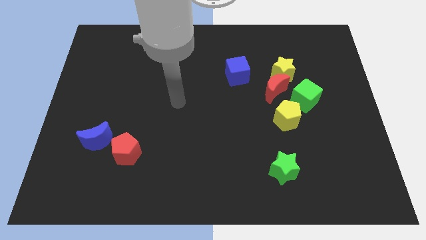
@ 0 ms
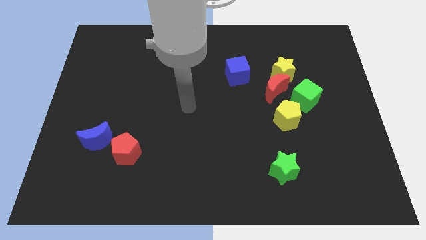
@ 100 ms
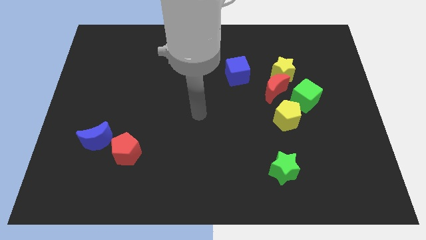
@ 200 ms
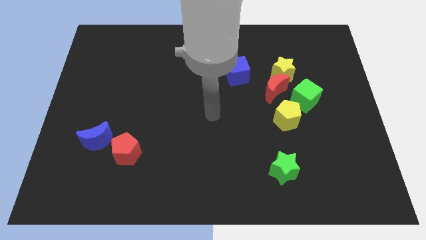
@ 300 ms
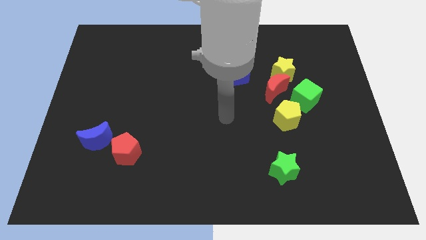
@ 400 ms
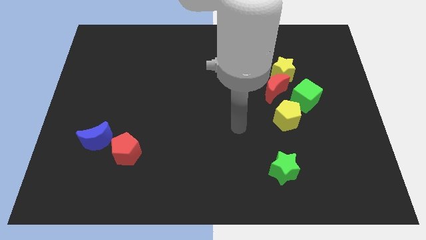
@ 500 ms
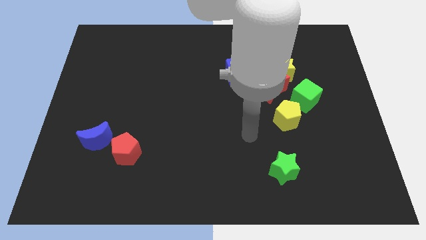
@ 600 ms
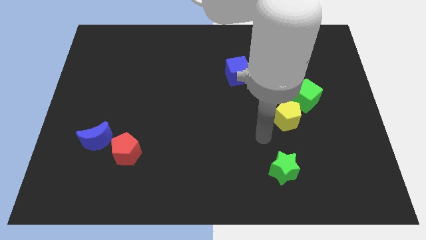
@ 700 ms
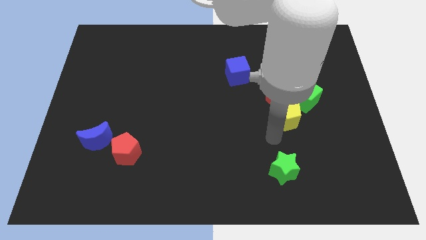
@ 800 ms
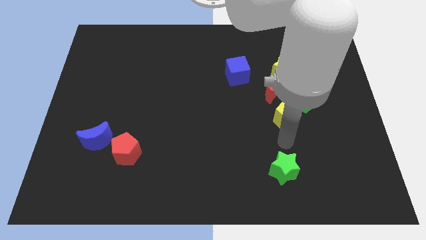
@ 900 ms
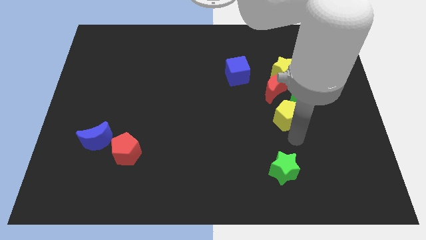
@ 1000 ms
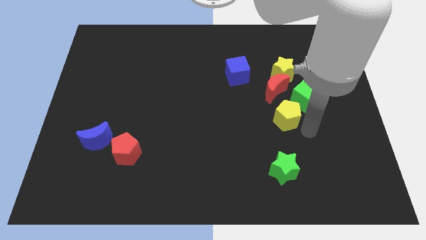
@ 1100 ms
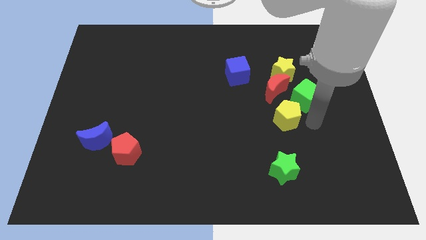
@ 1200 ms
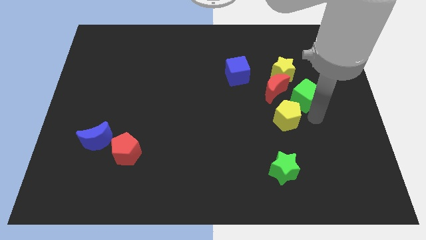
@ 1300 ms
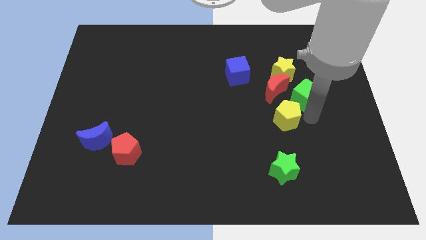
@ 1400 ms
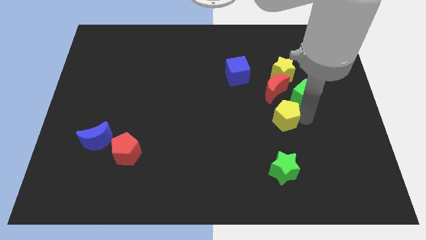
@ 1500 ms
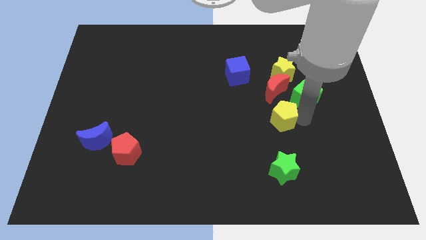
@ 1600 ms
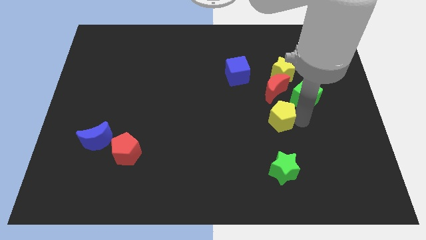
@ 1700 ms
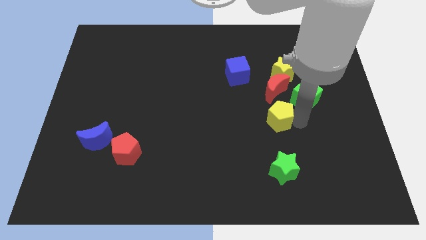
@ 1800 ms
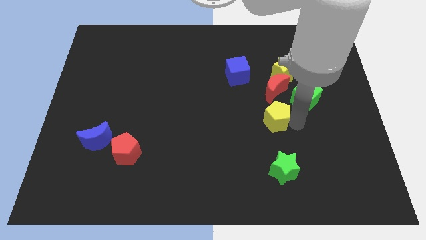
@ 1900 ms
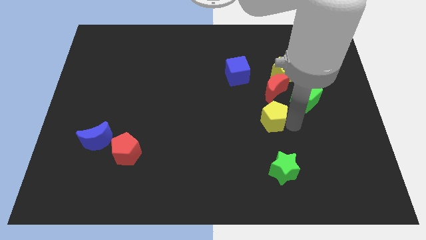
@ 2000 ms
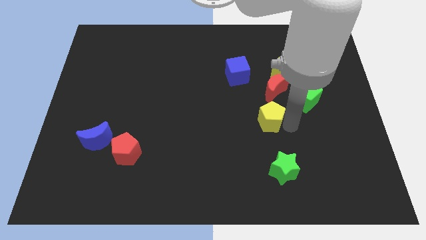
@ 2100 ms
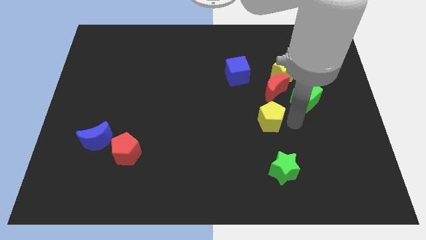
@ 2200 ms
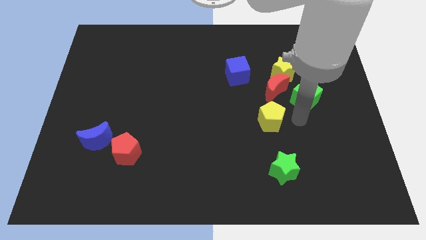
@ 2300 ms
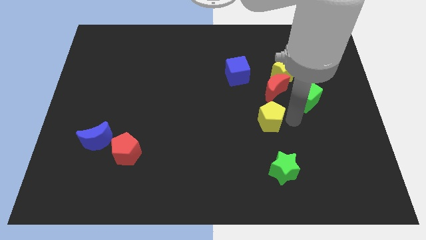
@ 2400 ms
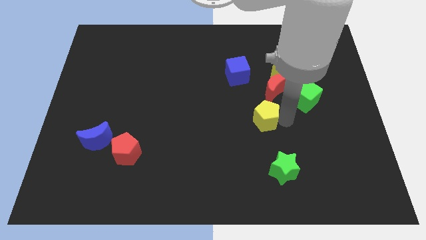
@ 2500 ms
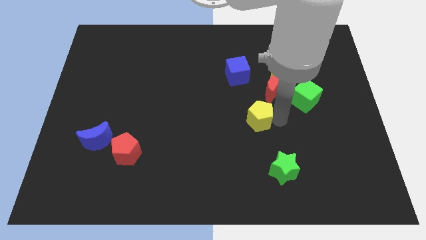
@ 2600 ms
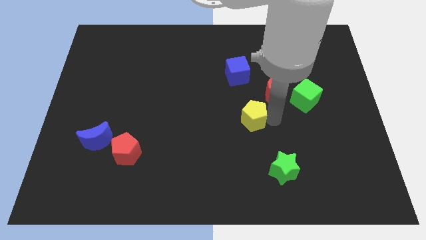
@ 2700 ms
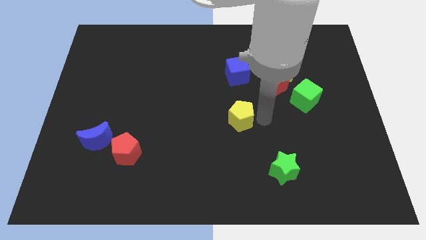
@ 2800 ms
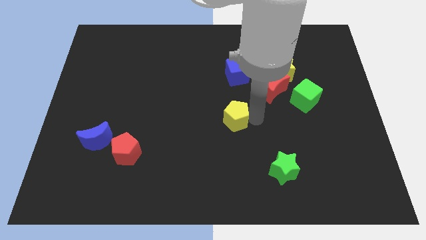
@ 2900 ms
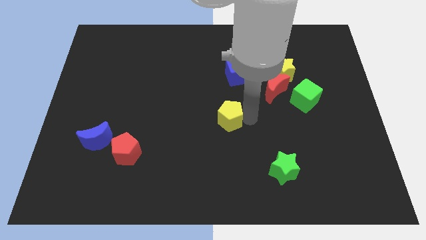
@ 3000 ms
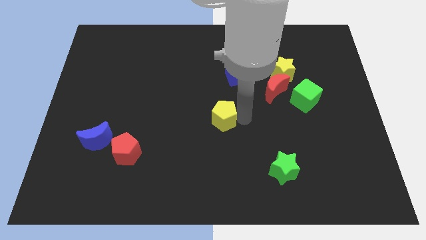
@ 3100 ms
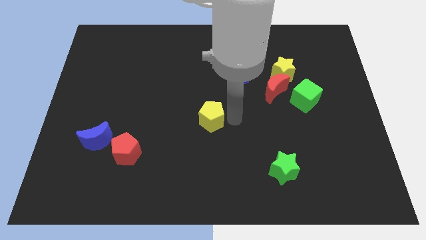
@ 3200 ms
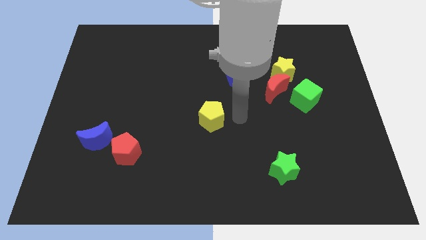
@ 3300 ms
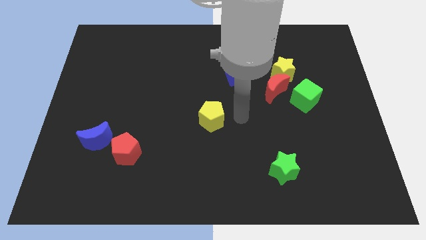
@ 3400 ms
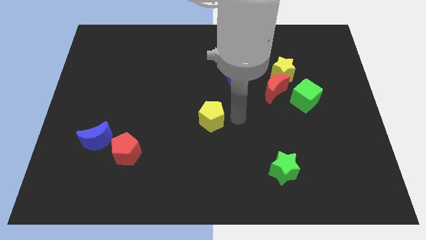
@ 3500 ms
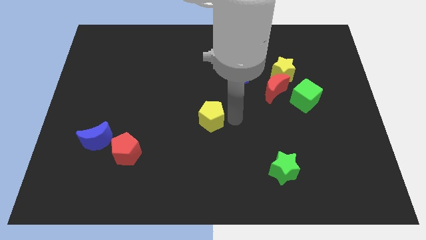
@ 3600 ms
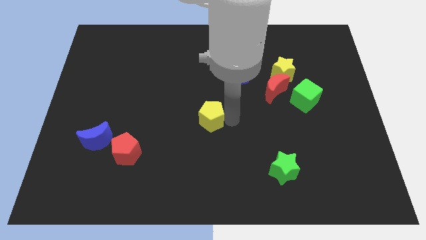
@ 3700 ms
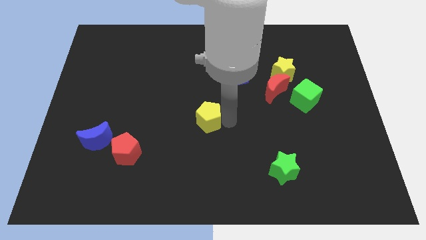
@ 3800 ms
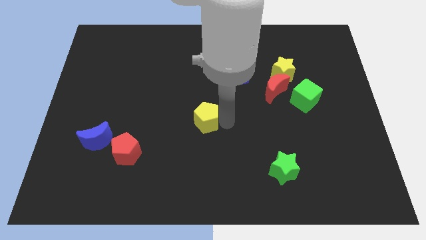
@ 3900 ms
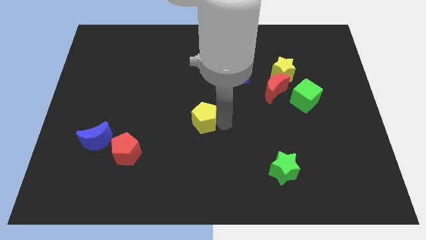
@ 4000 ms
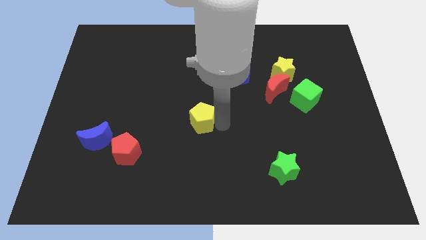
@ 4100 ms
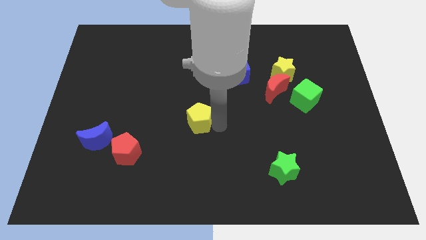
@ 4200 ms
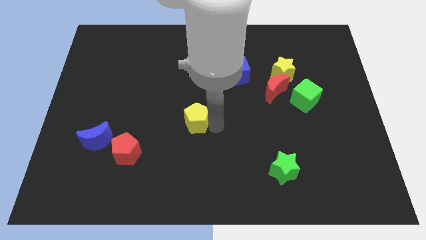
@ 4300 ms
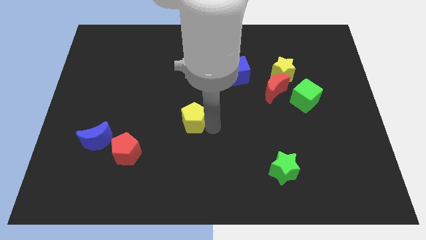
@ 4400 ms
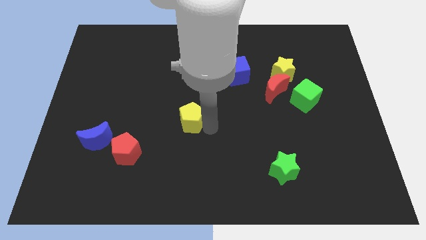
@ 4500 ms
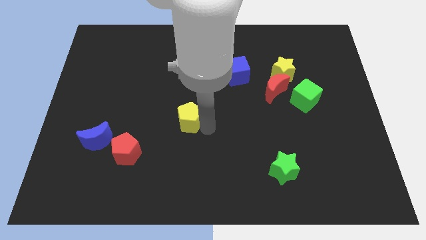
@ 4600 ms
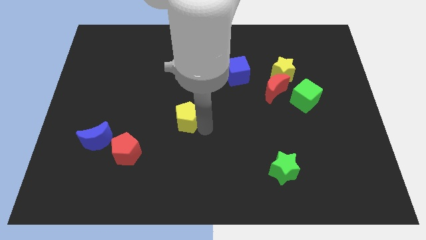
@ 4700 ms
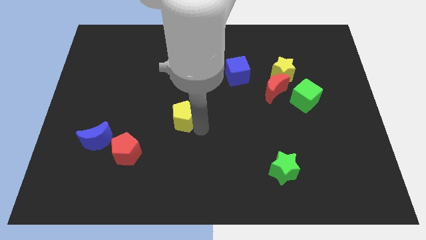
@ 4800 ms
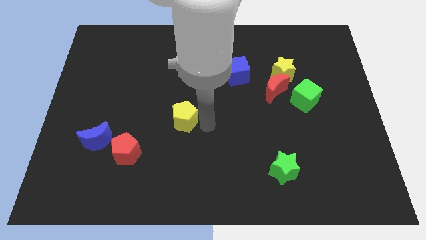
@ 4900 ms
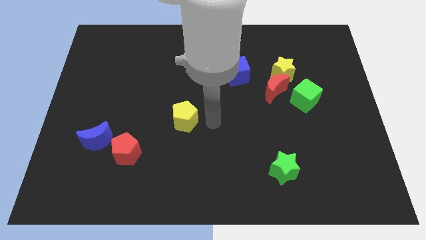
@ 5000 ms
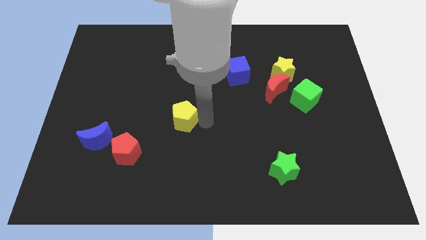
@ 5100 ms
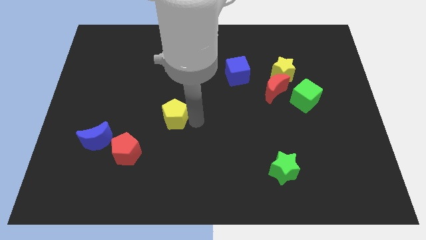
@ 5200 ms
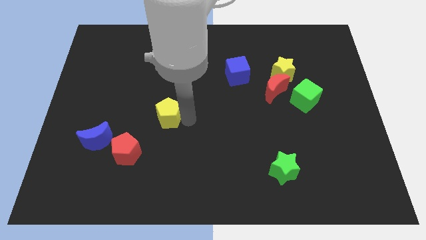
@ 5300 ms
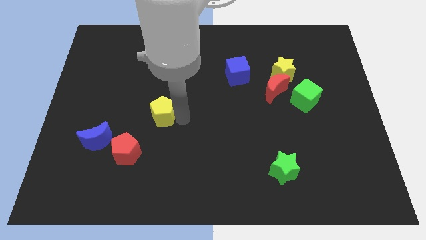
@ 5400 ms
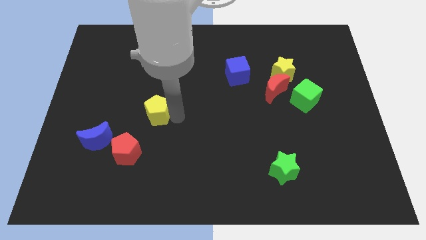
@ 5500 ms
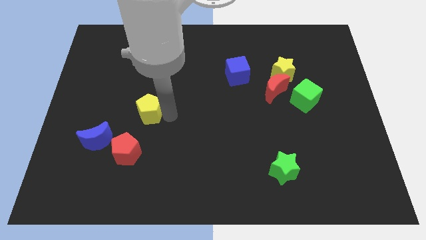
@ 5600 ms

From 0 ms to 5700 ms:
push the yellow pentagon above the red pentagon

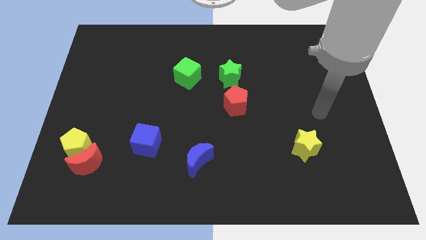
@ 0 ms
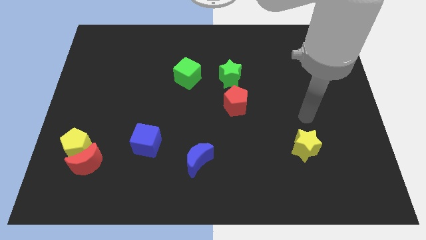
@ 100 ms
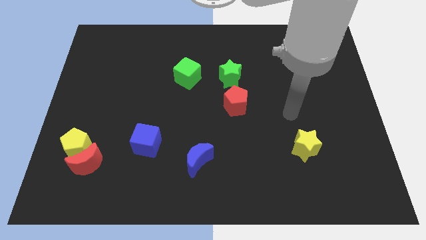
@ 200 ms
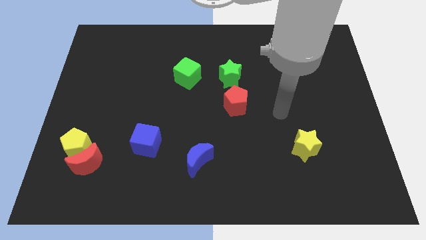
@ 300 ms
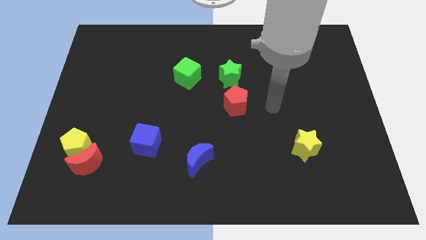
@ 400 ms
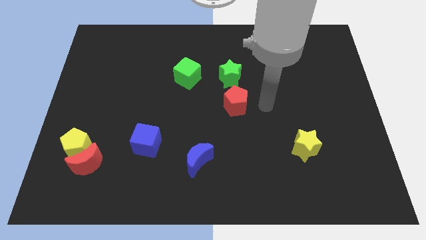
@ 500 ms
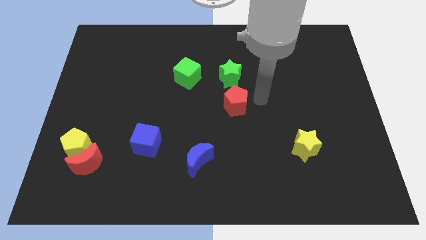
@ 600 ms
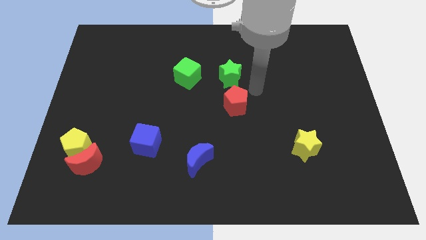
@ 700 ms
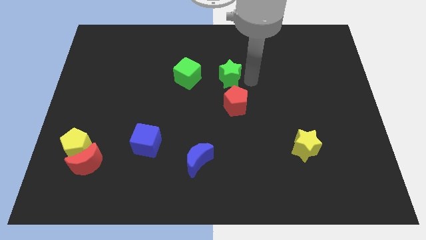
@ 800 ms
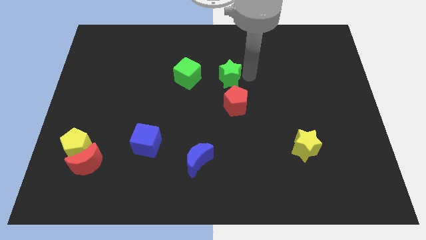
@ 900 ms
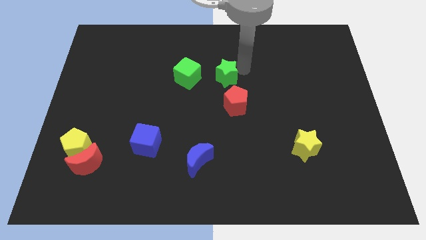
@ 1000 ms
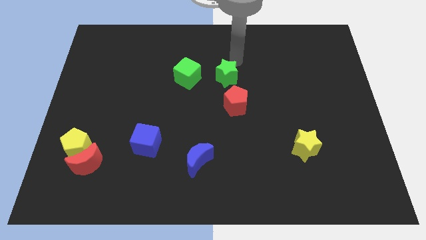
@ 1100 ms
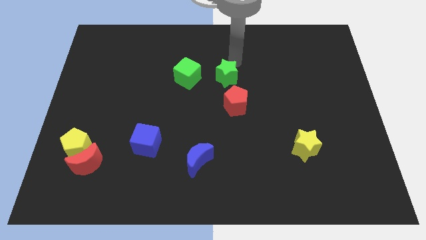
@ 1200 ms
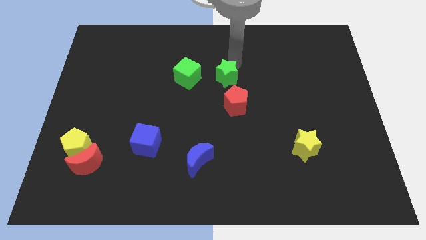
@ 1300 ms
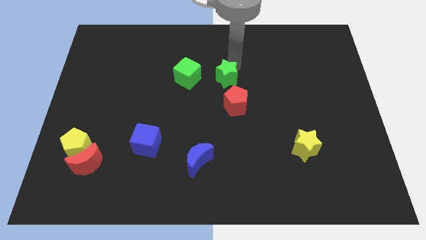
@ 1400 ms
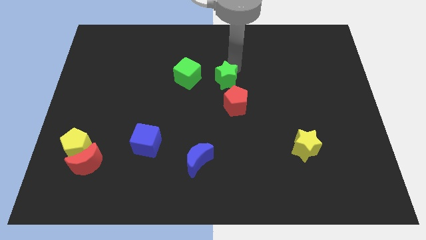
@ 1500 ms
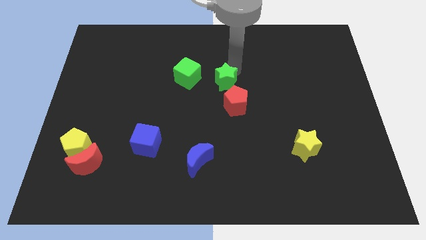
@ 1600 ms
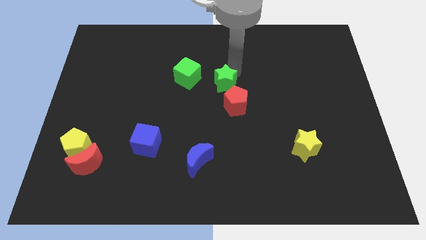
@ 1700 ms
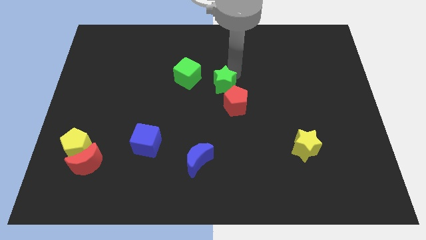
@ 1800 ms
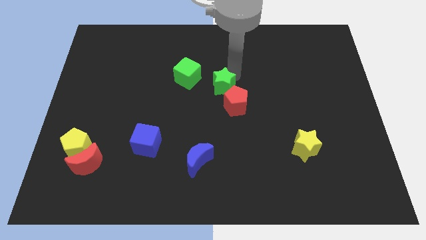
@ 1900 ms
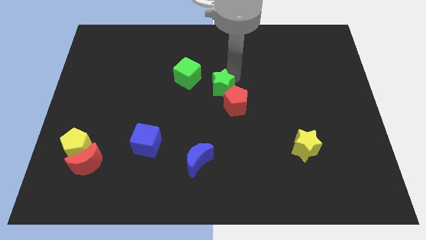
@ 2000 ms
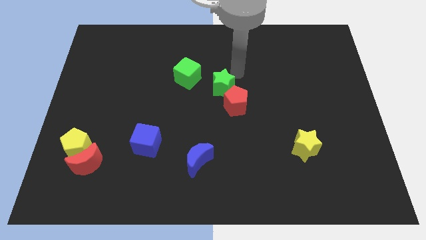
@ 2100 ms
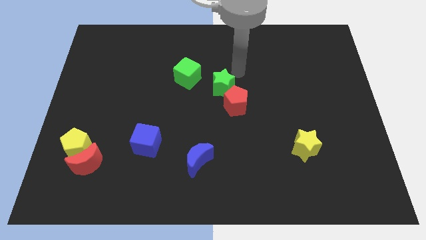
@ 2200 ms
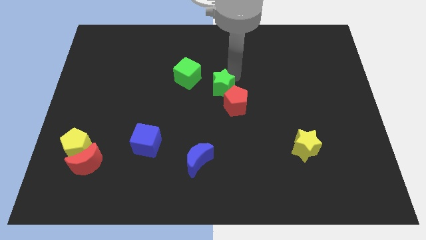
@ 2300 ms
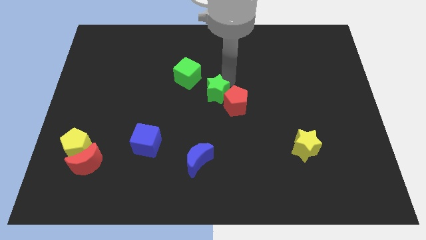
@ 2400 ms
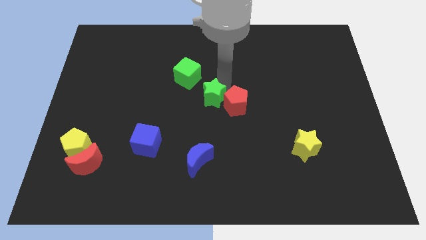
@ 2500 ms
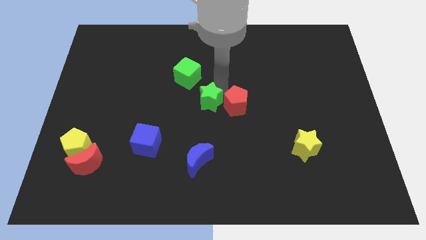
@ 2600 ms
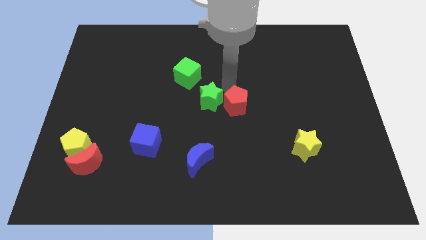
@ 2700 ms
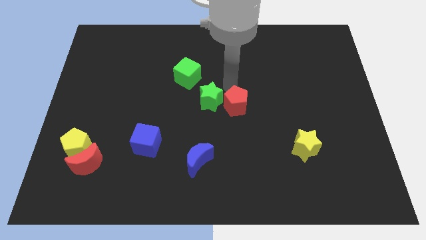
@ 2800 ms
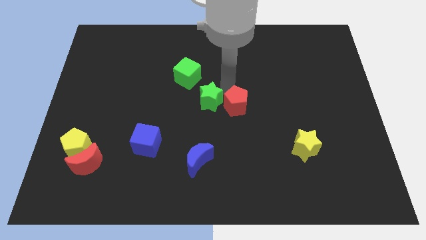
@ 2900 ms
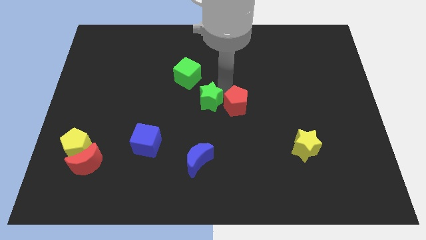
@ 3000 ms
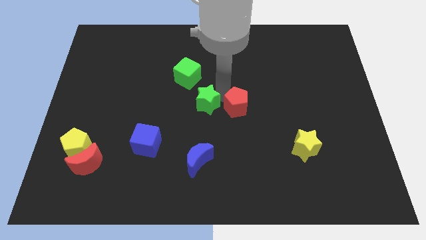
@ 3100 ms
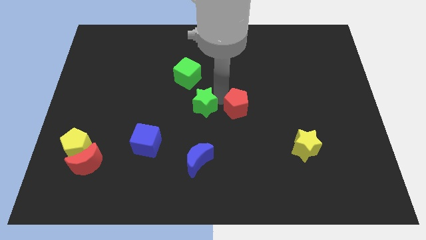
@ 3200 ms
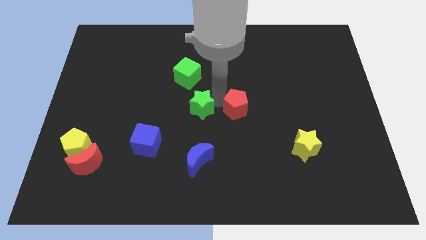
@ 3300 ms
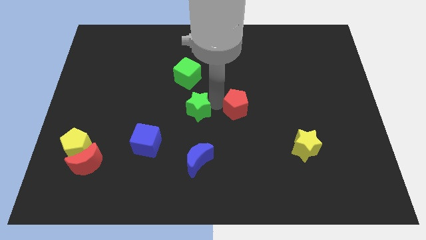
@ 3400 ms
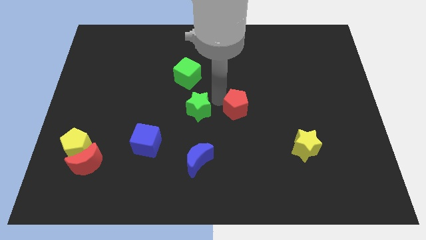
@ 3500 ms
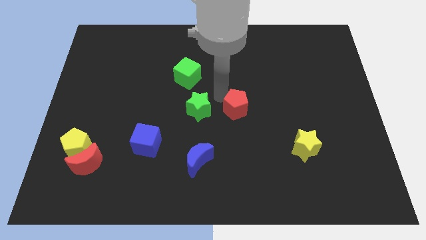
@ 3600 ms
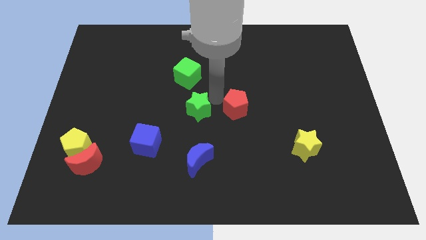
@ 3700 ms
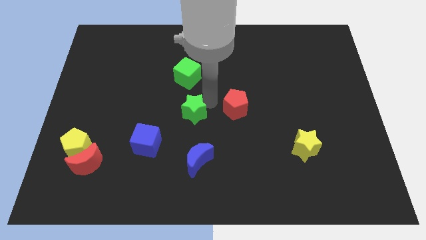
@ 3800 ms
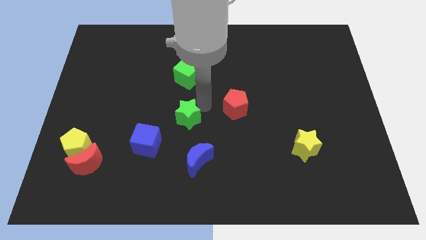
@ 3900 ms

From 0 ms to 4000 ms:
slide the green star to the top right side of the blue cube
